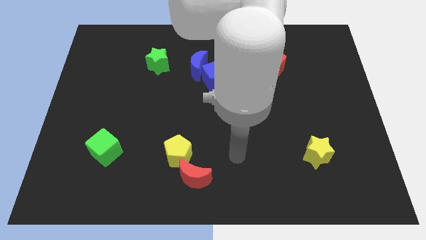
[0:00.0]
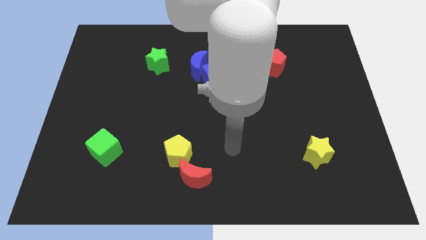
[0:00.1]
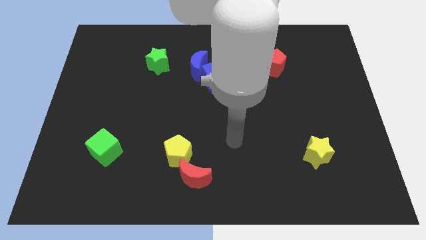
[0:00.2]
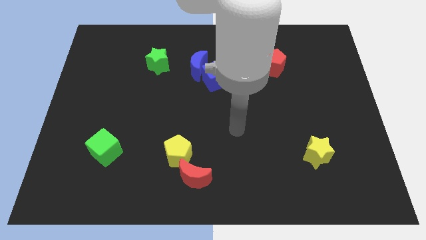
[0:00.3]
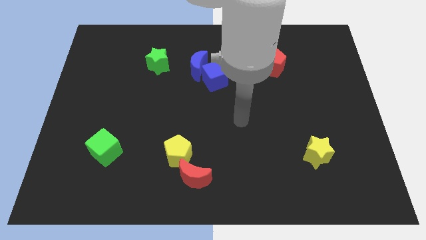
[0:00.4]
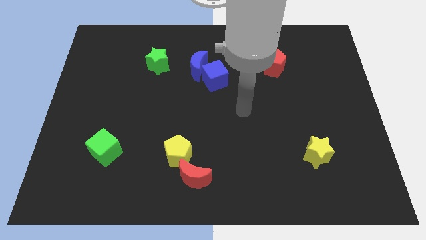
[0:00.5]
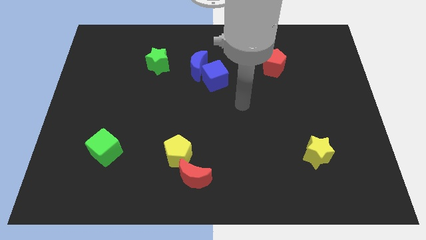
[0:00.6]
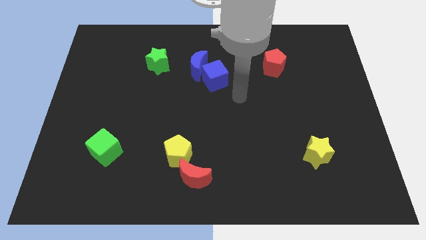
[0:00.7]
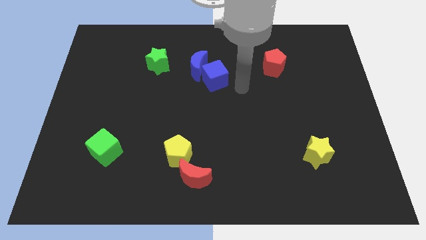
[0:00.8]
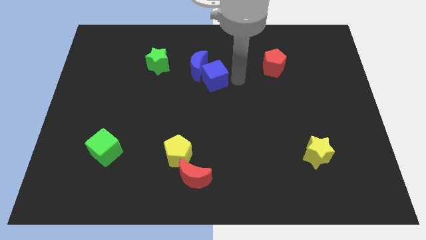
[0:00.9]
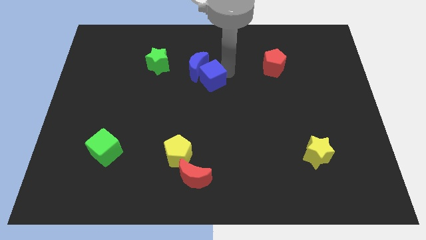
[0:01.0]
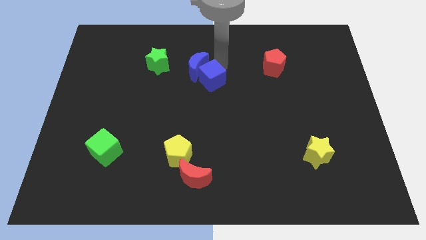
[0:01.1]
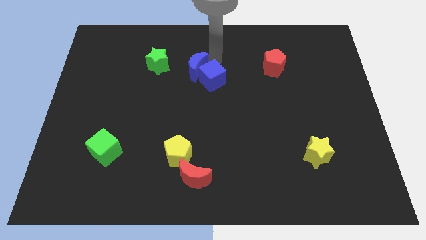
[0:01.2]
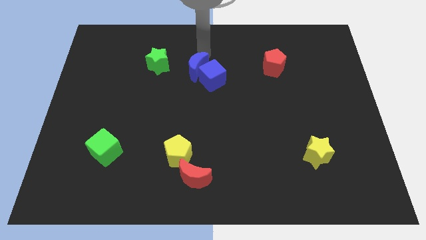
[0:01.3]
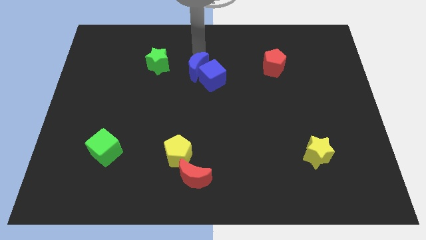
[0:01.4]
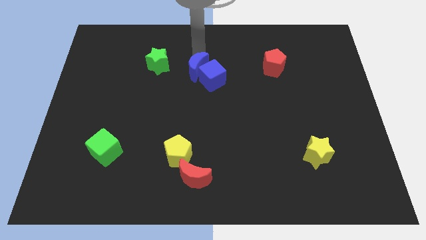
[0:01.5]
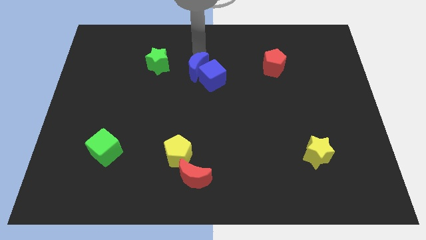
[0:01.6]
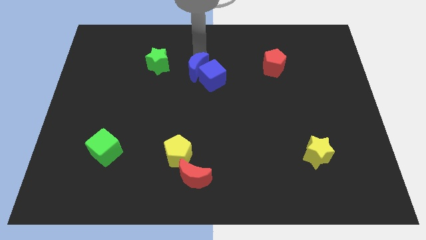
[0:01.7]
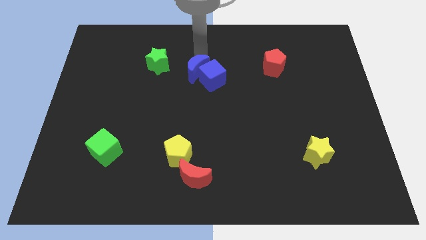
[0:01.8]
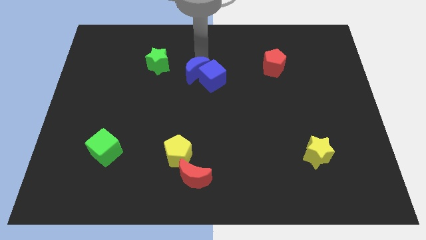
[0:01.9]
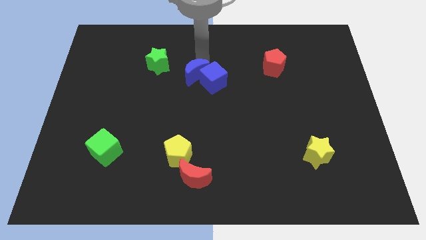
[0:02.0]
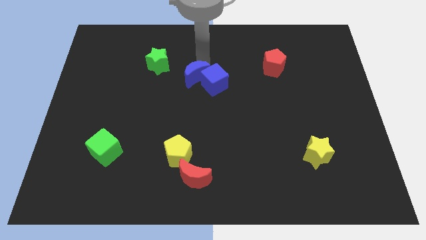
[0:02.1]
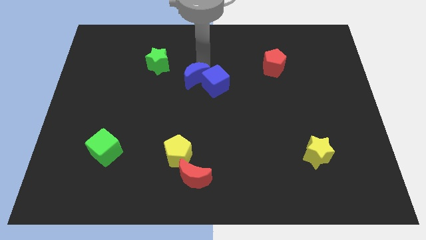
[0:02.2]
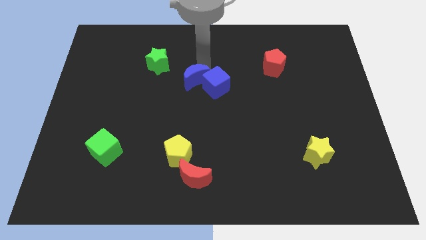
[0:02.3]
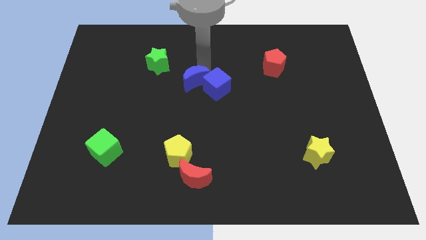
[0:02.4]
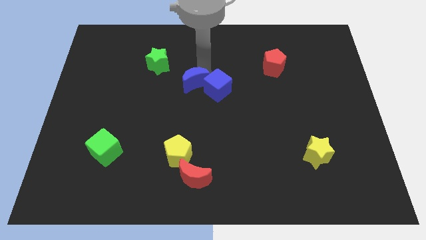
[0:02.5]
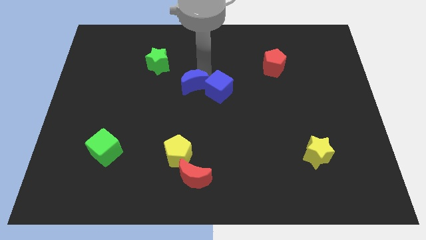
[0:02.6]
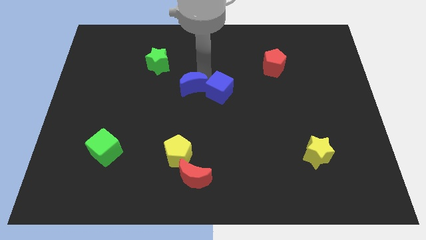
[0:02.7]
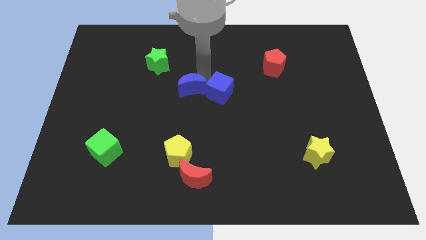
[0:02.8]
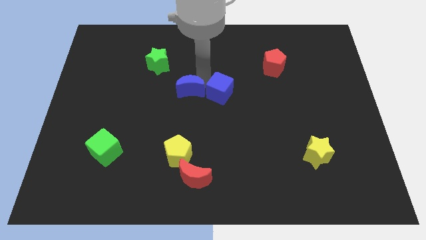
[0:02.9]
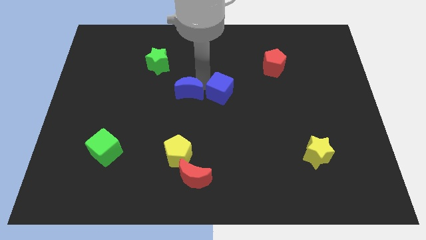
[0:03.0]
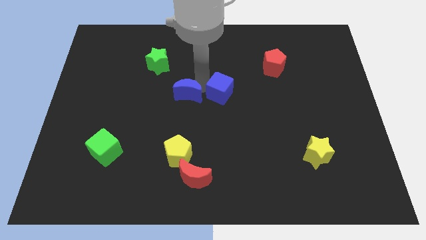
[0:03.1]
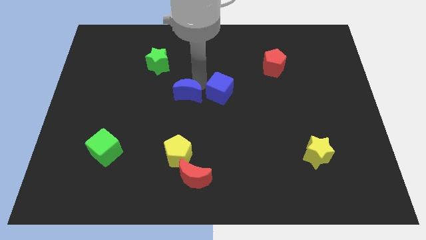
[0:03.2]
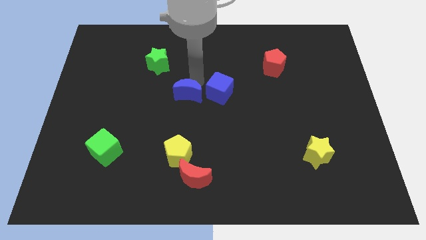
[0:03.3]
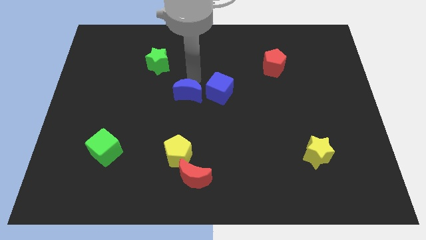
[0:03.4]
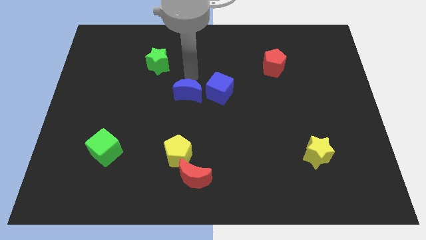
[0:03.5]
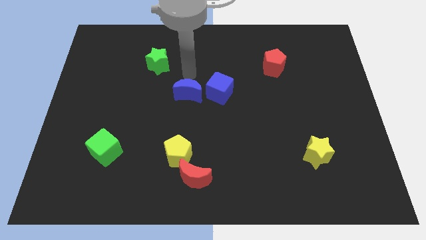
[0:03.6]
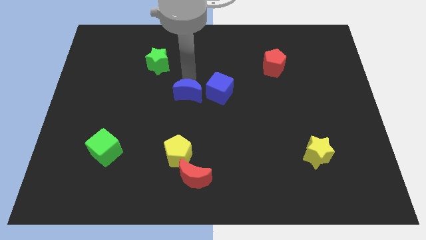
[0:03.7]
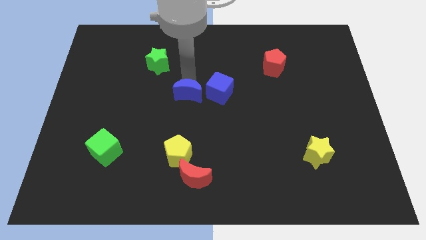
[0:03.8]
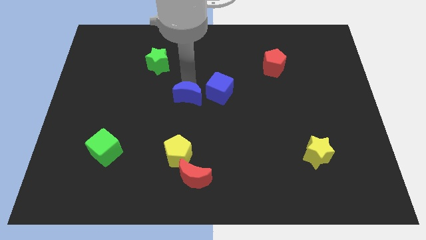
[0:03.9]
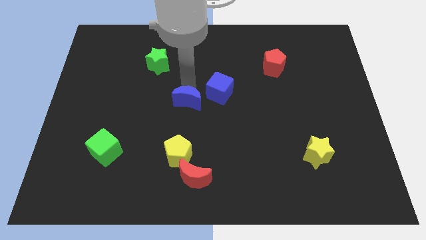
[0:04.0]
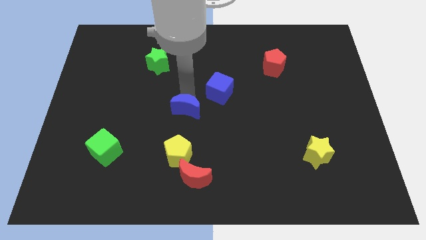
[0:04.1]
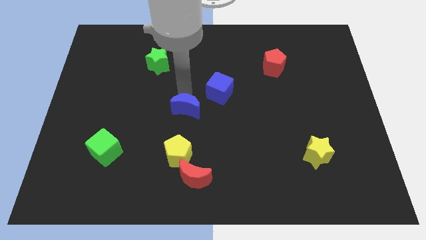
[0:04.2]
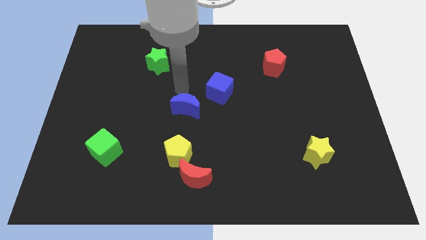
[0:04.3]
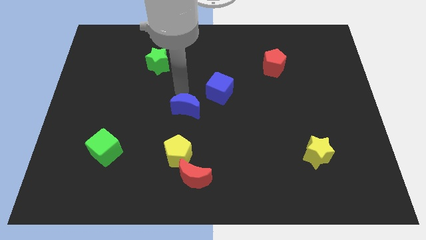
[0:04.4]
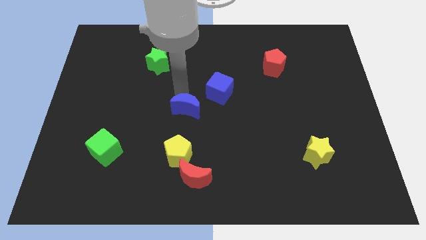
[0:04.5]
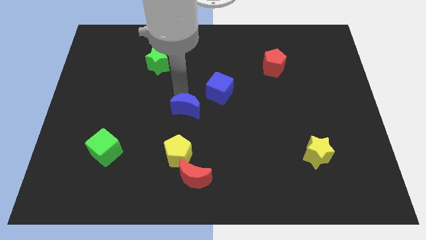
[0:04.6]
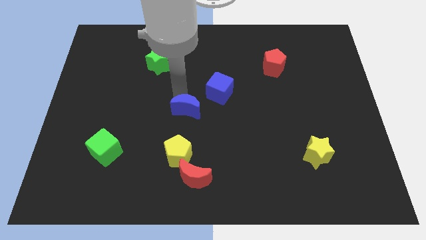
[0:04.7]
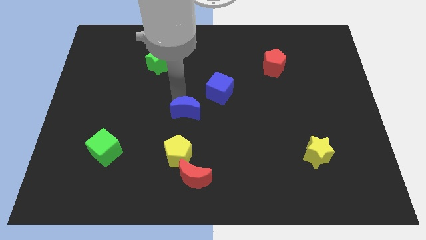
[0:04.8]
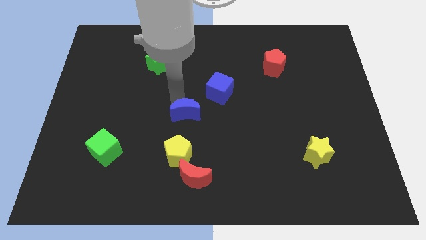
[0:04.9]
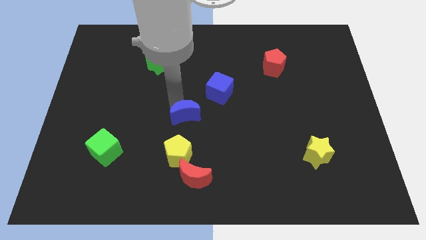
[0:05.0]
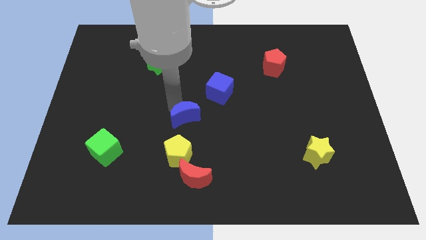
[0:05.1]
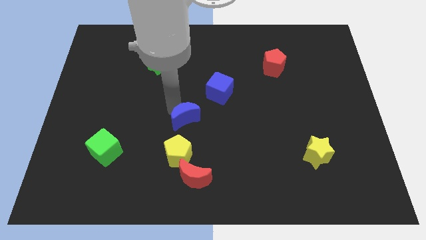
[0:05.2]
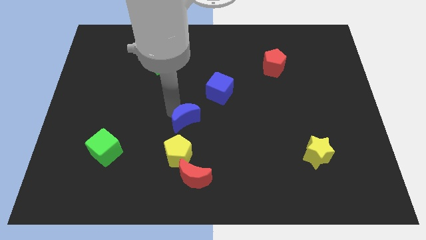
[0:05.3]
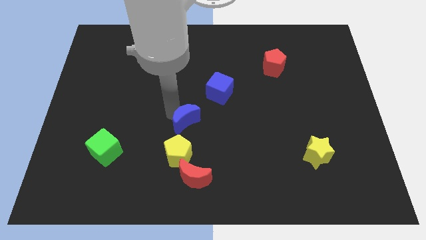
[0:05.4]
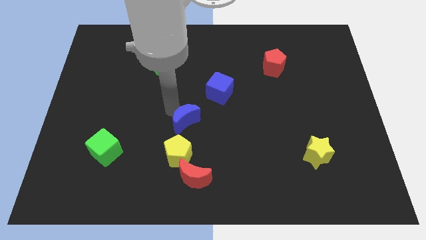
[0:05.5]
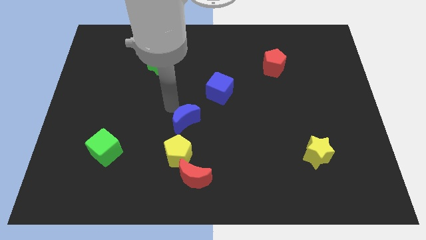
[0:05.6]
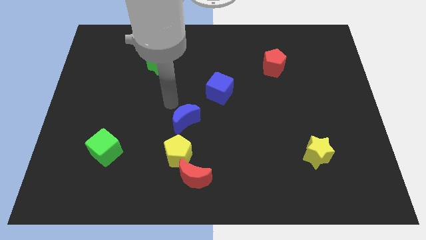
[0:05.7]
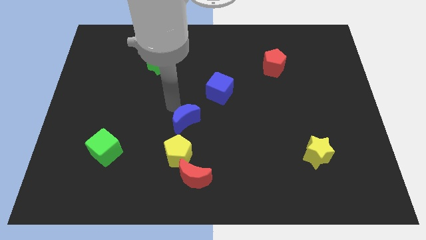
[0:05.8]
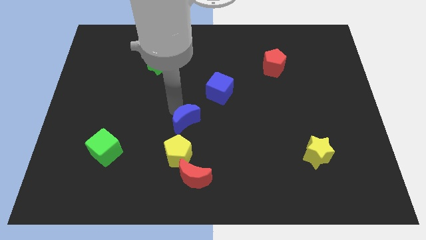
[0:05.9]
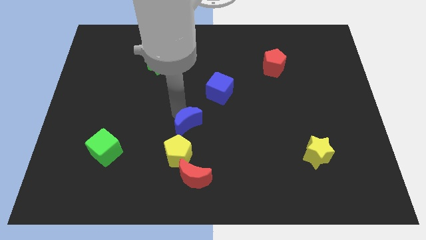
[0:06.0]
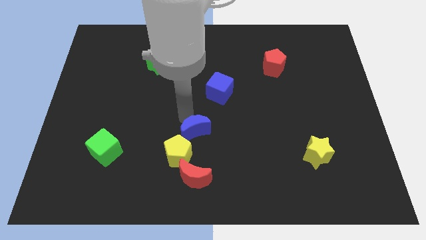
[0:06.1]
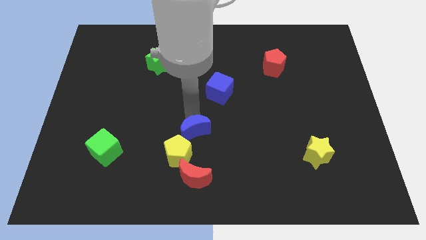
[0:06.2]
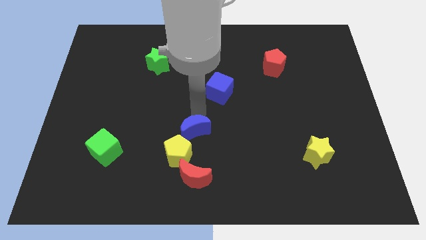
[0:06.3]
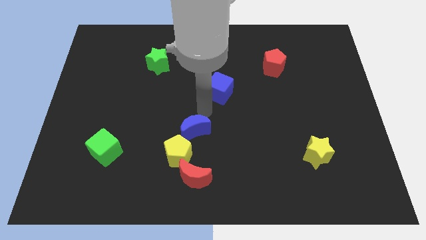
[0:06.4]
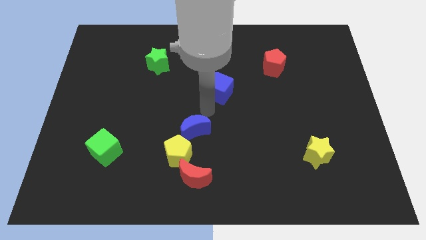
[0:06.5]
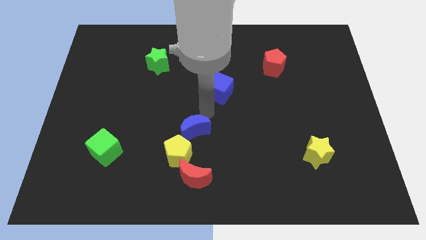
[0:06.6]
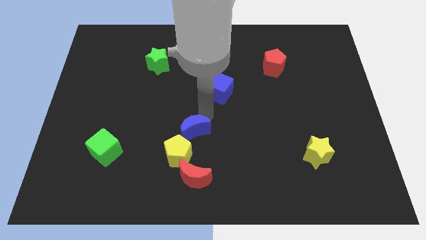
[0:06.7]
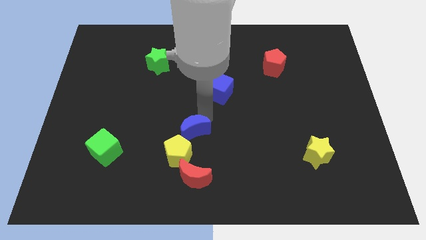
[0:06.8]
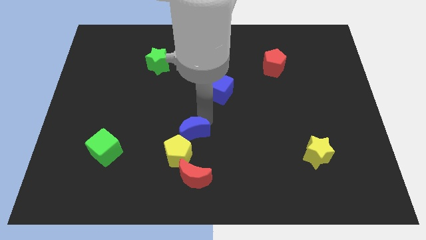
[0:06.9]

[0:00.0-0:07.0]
slide the blue moon next to the yellow pentagon
